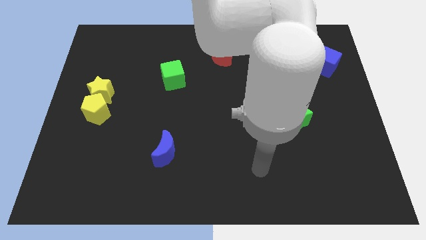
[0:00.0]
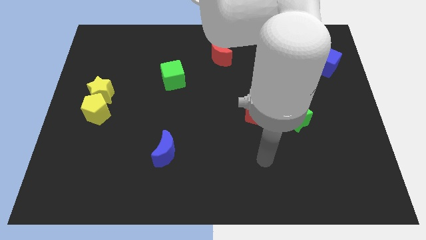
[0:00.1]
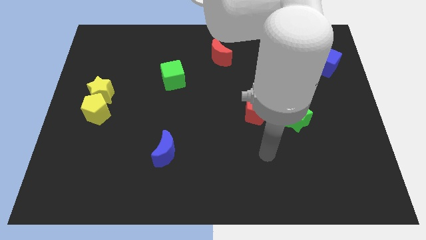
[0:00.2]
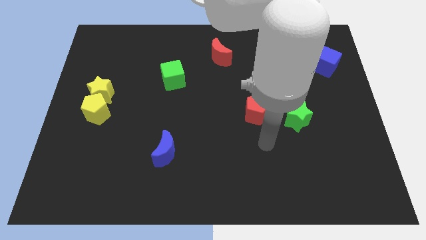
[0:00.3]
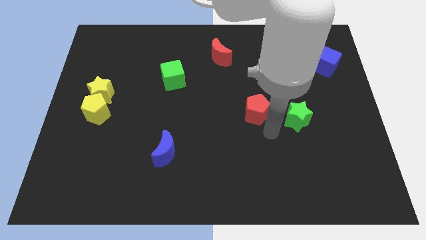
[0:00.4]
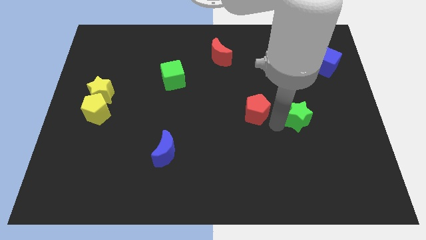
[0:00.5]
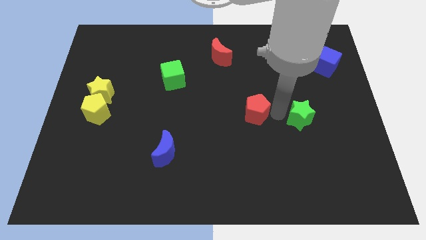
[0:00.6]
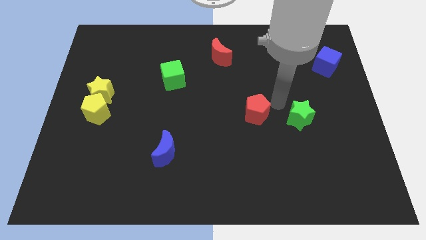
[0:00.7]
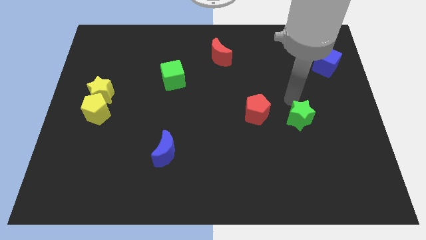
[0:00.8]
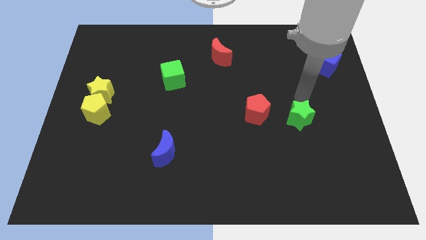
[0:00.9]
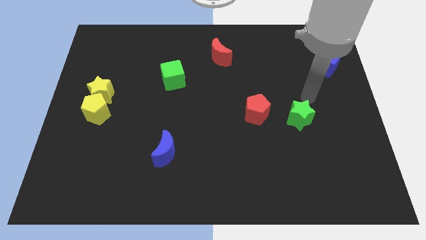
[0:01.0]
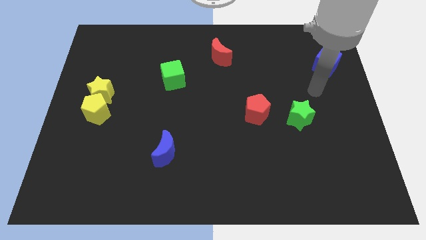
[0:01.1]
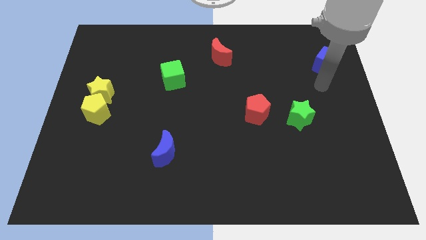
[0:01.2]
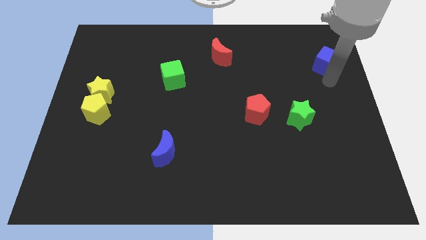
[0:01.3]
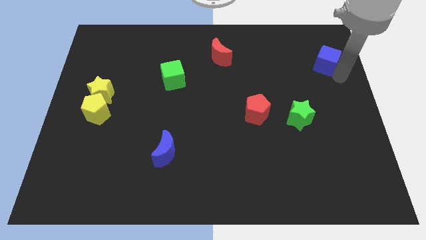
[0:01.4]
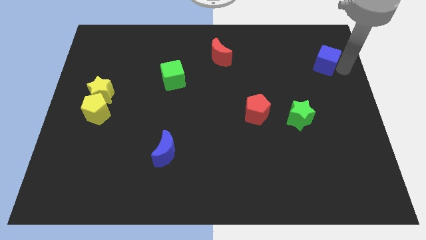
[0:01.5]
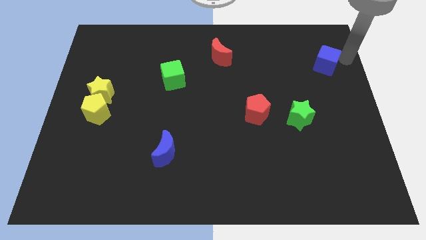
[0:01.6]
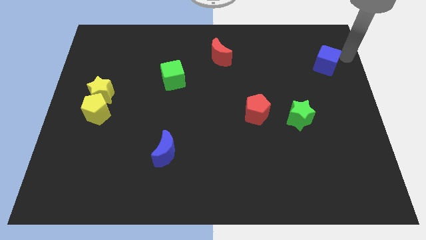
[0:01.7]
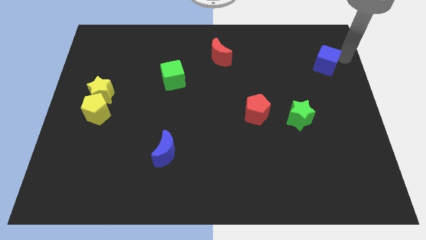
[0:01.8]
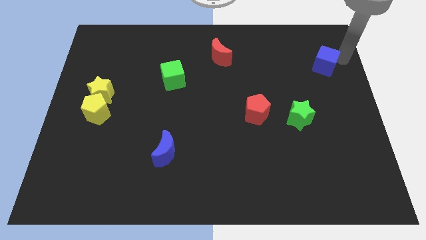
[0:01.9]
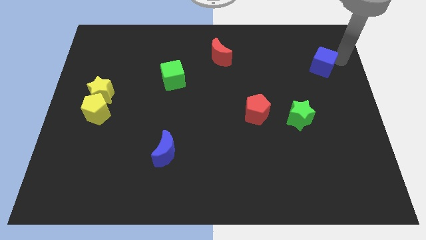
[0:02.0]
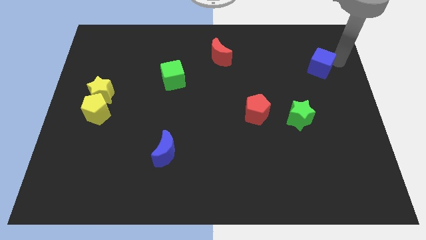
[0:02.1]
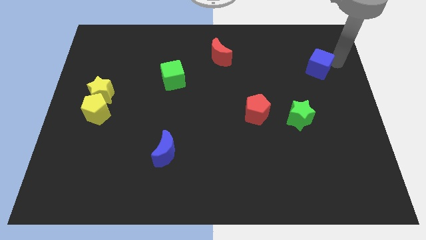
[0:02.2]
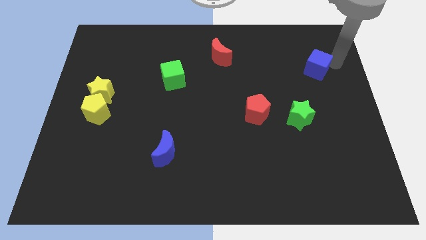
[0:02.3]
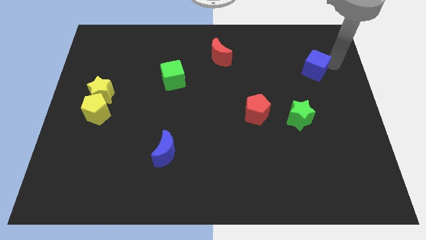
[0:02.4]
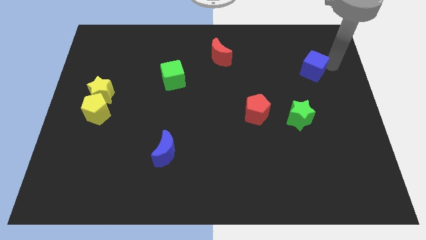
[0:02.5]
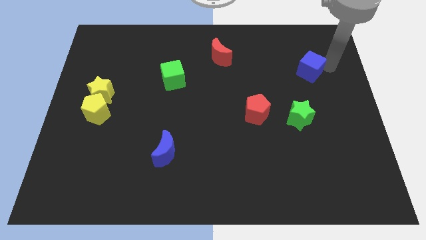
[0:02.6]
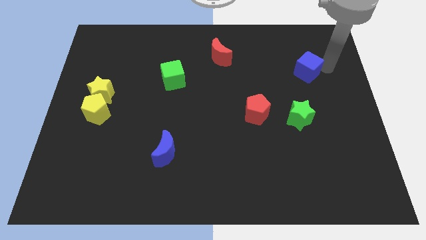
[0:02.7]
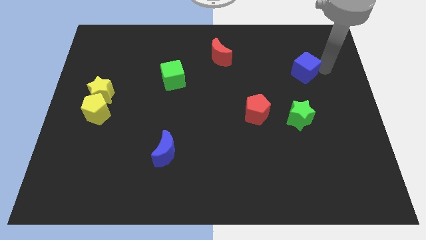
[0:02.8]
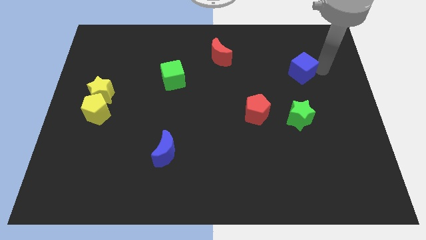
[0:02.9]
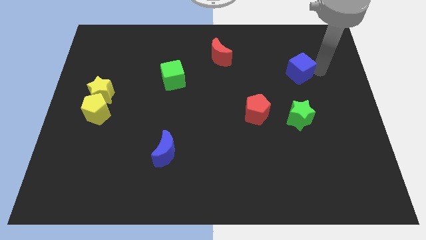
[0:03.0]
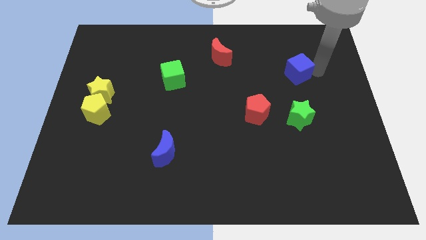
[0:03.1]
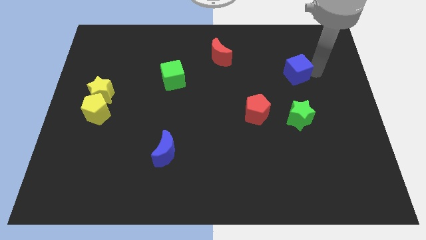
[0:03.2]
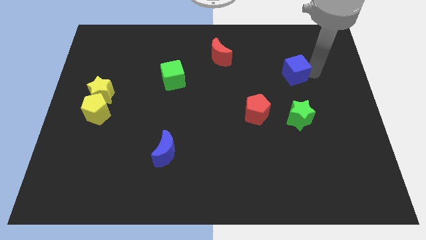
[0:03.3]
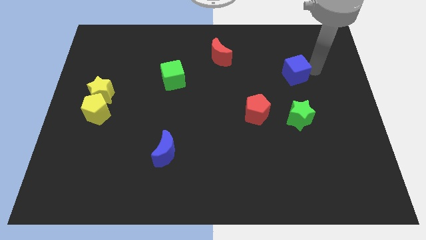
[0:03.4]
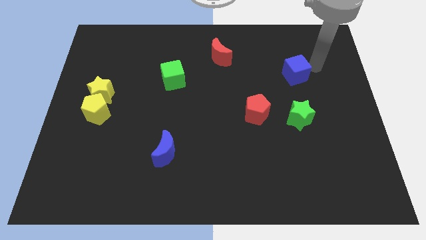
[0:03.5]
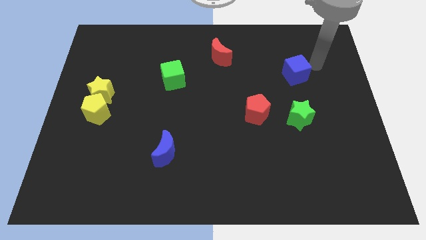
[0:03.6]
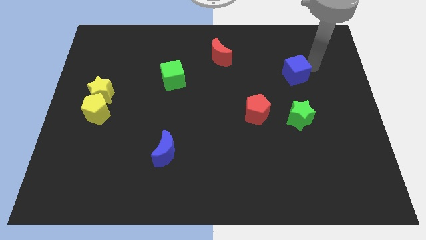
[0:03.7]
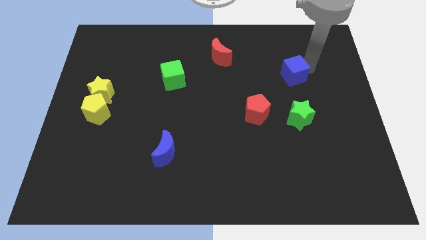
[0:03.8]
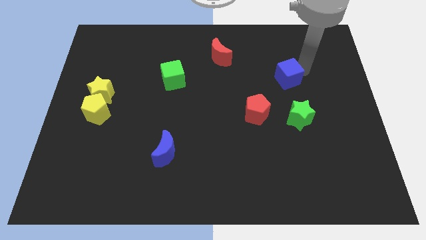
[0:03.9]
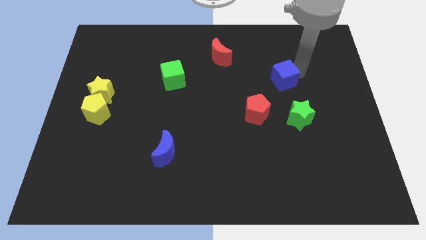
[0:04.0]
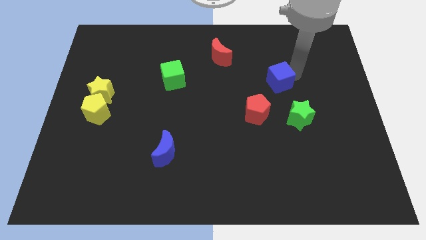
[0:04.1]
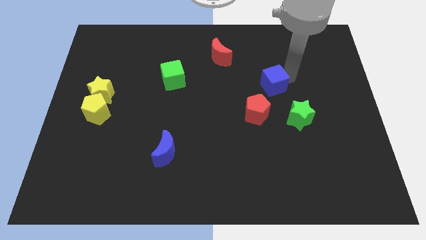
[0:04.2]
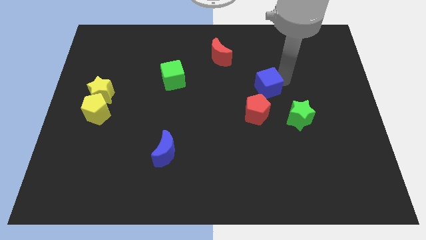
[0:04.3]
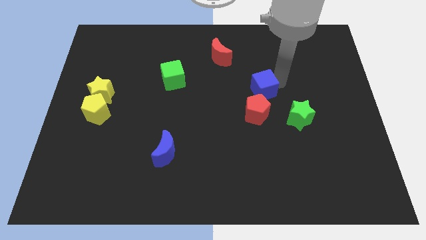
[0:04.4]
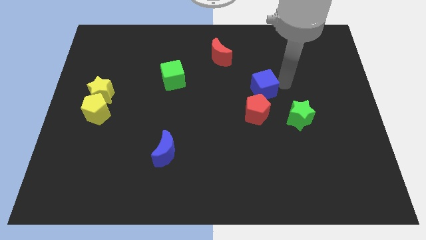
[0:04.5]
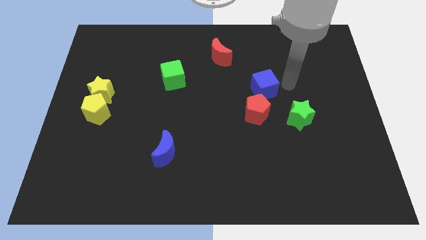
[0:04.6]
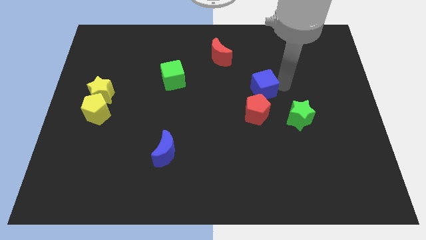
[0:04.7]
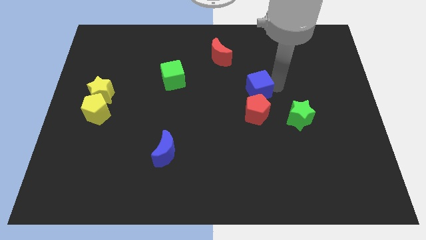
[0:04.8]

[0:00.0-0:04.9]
move the blue cube to the middle

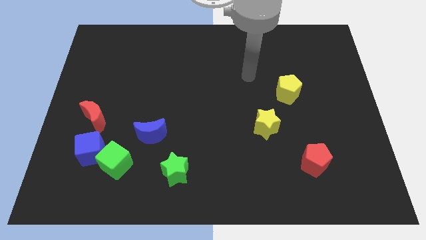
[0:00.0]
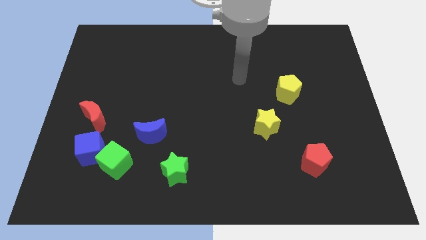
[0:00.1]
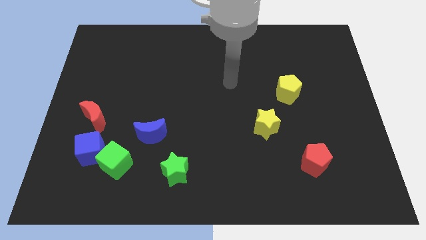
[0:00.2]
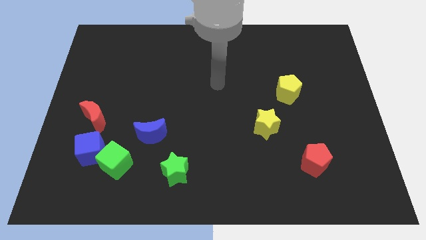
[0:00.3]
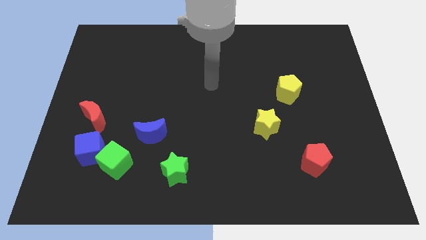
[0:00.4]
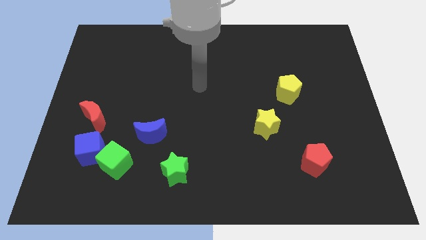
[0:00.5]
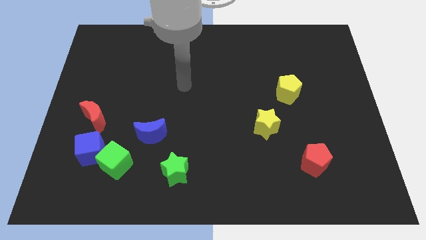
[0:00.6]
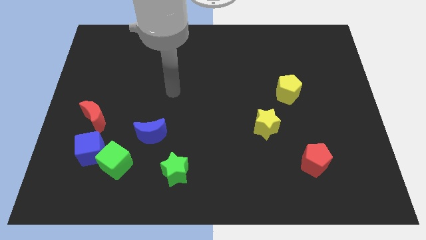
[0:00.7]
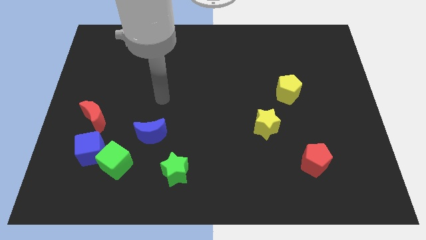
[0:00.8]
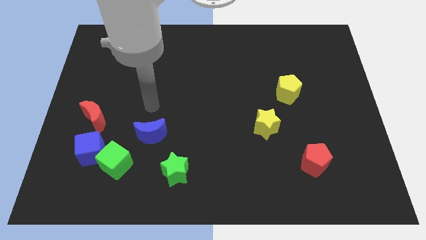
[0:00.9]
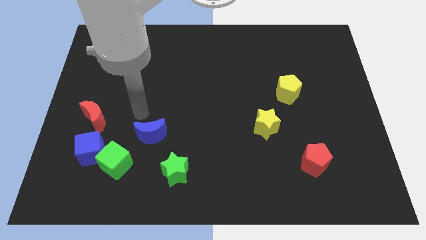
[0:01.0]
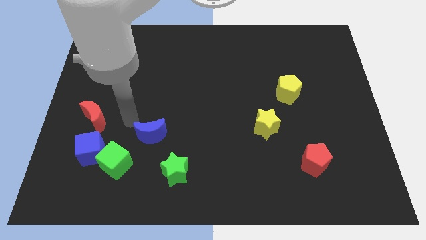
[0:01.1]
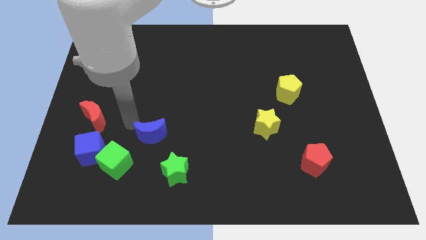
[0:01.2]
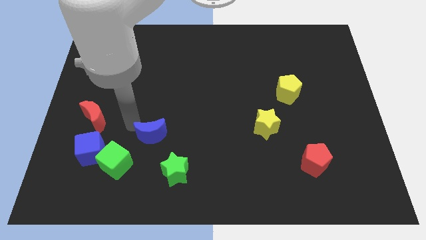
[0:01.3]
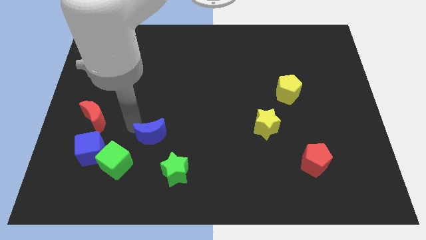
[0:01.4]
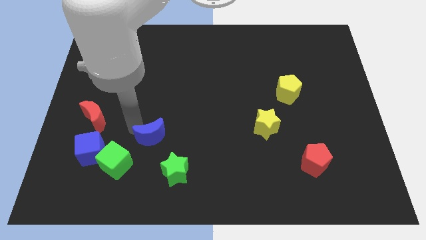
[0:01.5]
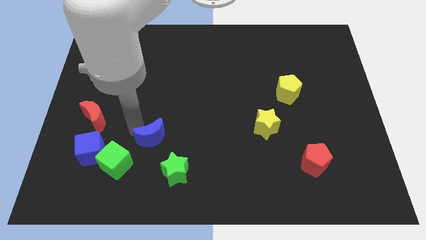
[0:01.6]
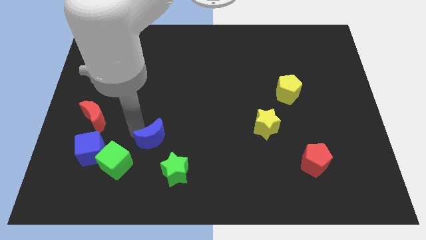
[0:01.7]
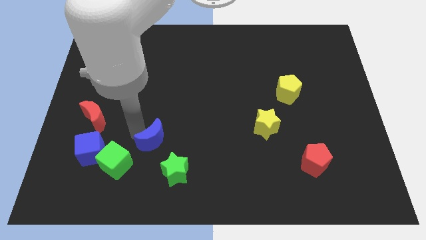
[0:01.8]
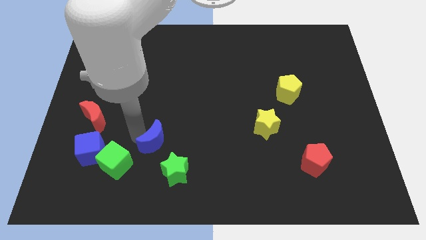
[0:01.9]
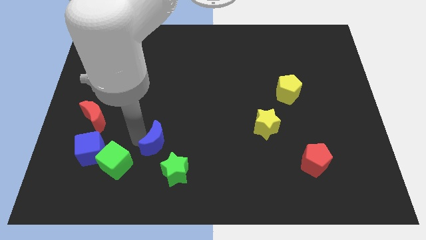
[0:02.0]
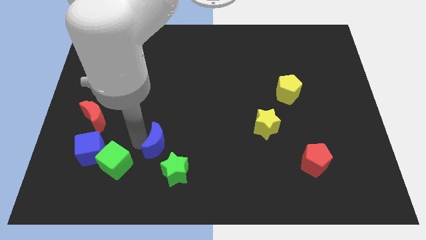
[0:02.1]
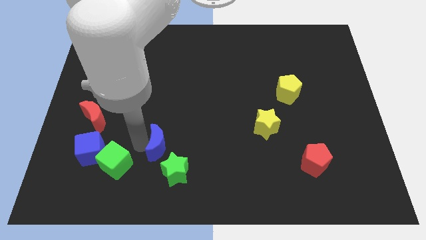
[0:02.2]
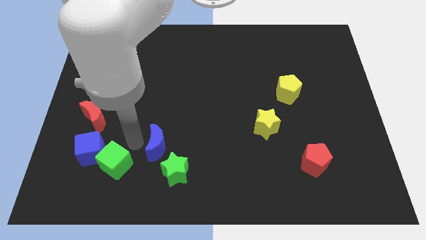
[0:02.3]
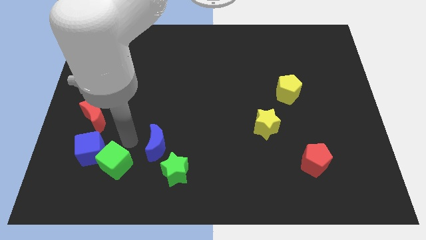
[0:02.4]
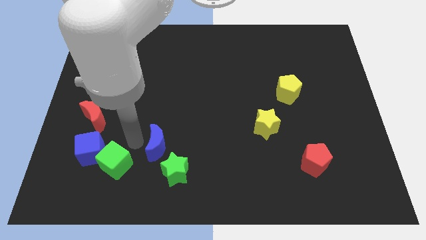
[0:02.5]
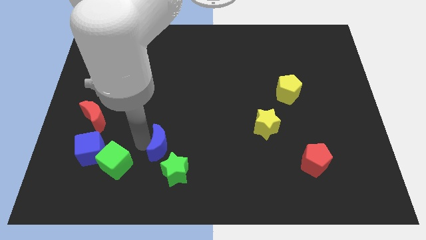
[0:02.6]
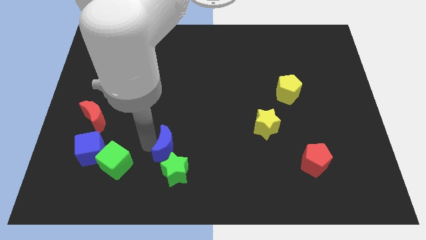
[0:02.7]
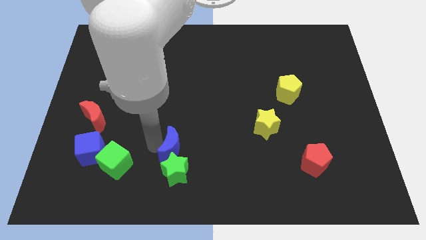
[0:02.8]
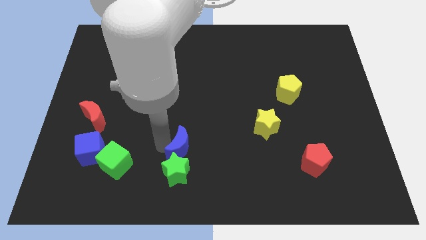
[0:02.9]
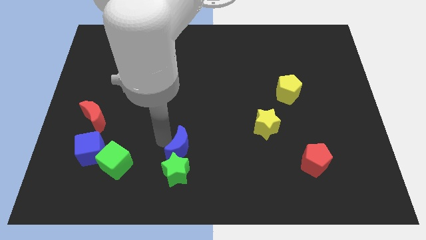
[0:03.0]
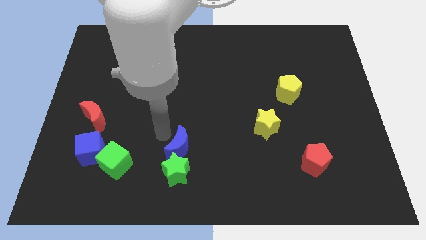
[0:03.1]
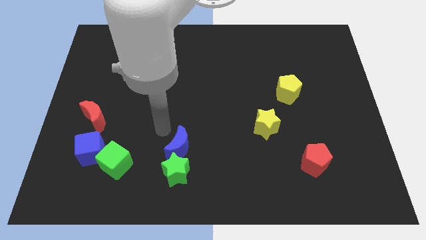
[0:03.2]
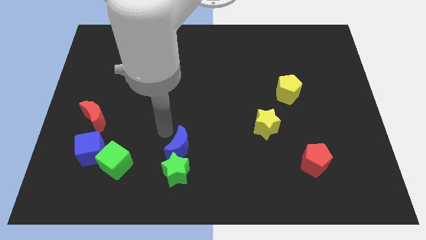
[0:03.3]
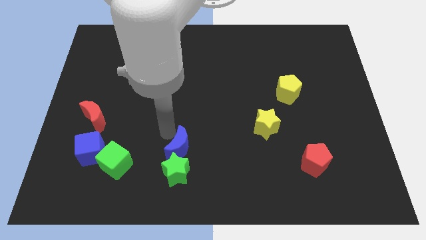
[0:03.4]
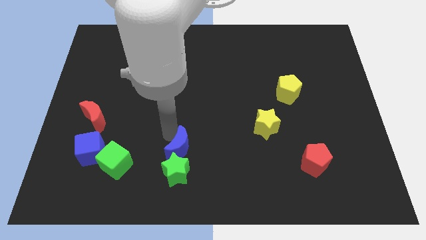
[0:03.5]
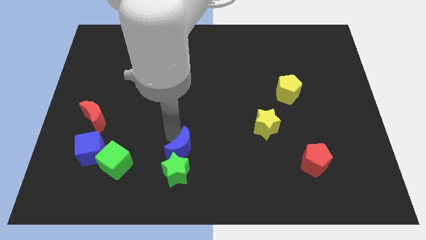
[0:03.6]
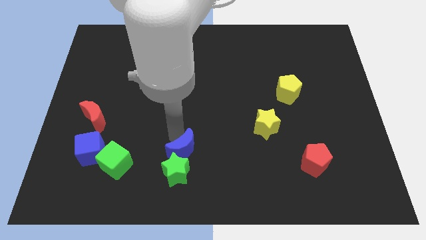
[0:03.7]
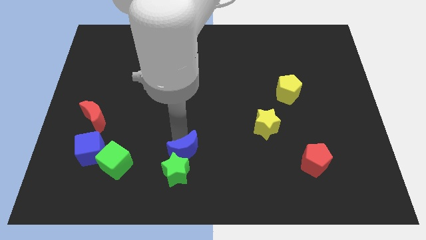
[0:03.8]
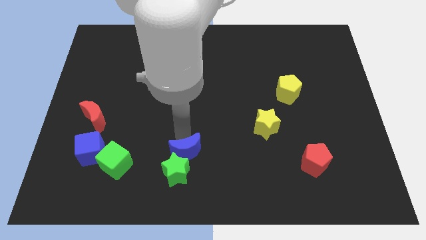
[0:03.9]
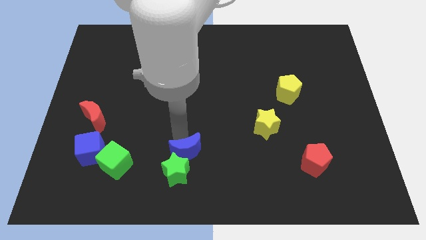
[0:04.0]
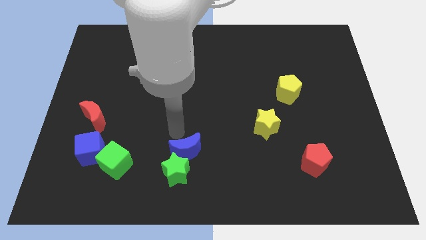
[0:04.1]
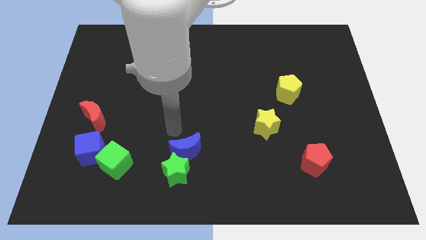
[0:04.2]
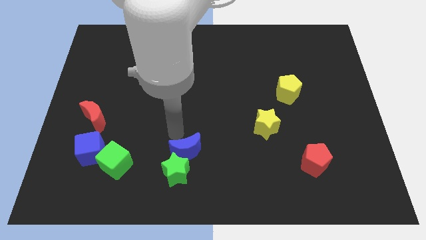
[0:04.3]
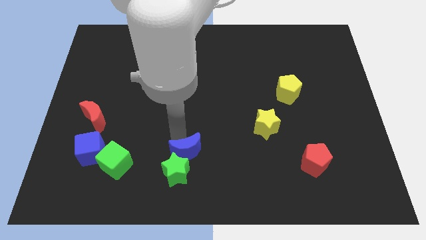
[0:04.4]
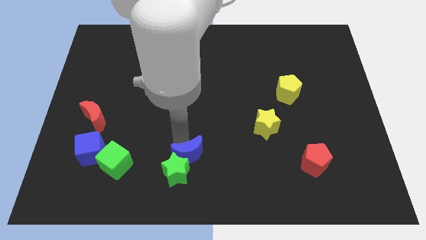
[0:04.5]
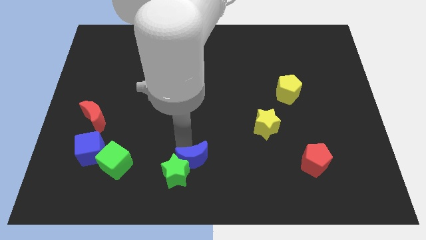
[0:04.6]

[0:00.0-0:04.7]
slide the blue moon to the bottom side
